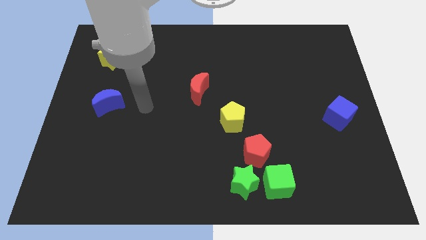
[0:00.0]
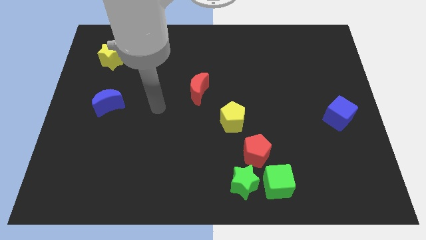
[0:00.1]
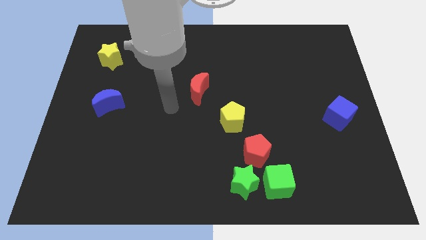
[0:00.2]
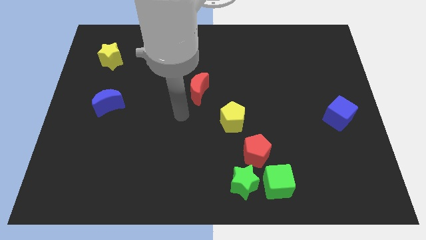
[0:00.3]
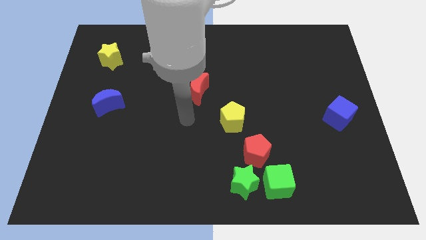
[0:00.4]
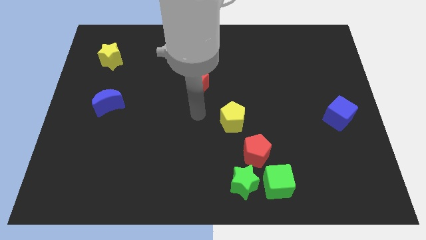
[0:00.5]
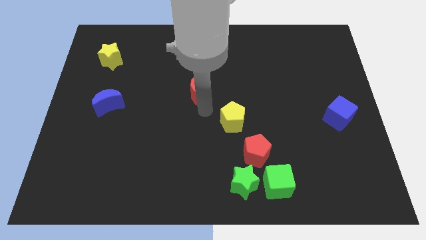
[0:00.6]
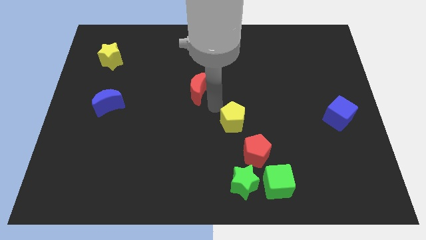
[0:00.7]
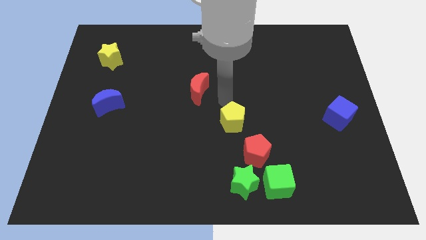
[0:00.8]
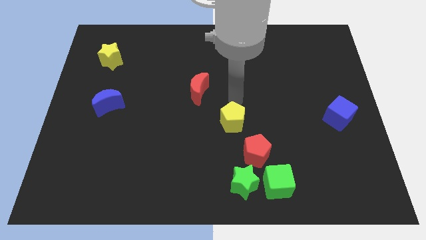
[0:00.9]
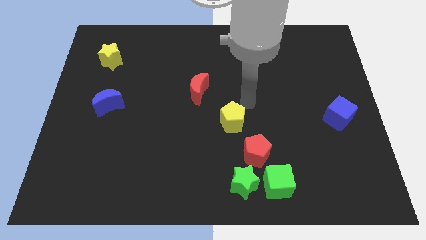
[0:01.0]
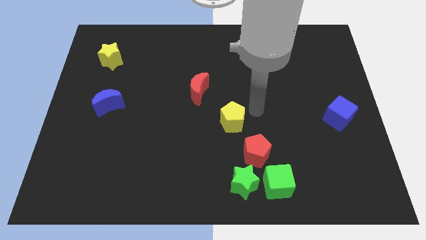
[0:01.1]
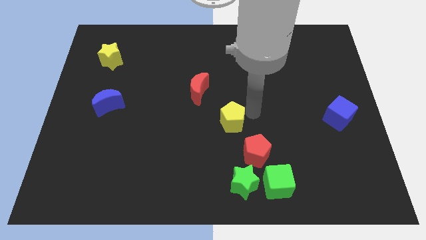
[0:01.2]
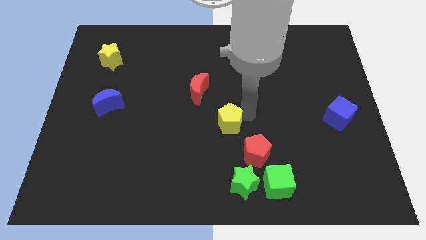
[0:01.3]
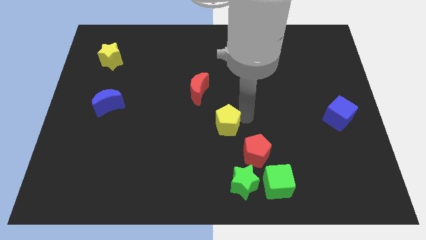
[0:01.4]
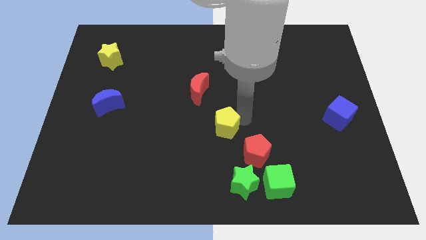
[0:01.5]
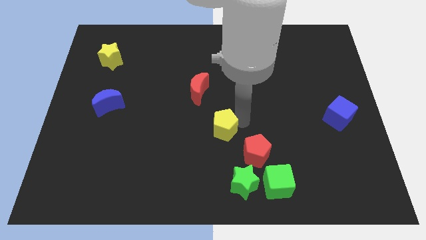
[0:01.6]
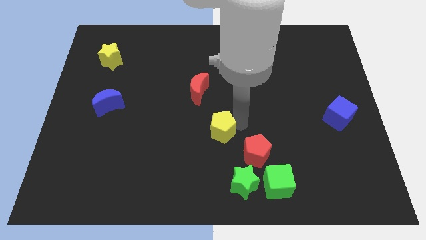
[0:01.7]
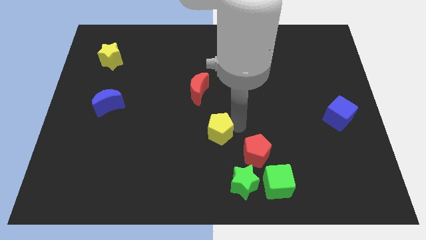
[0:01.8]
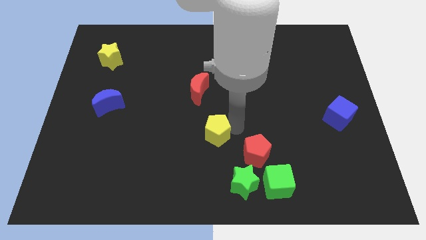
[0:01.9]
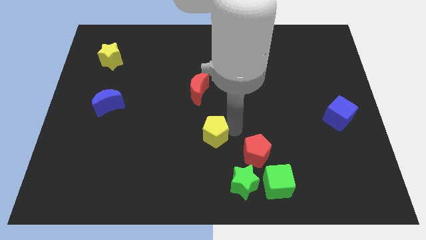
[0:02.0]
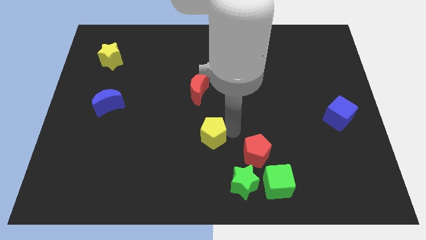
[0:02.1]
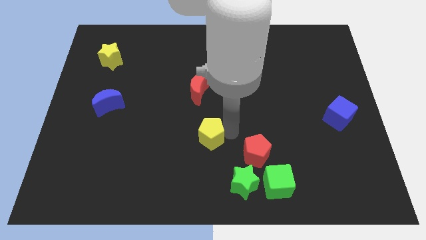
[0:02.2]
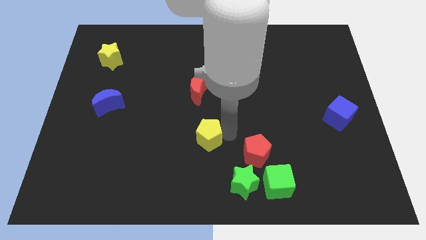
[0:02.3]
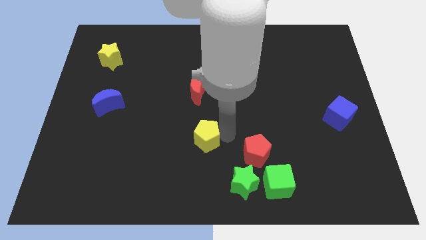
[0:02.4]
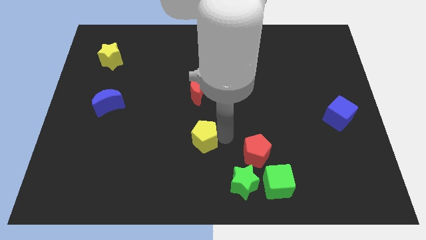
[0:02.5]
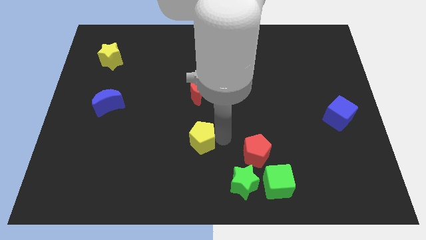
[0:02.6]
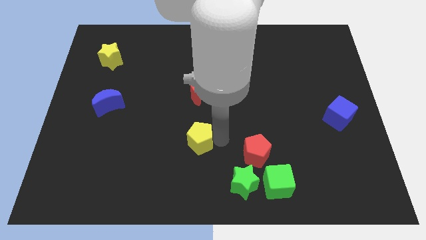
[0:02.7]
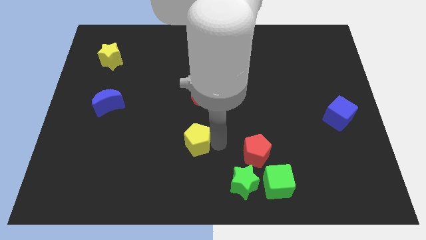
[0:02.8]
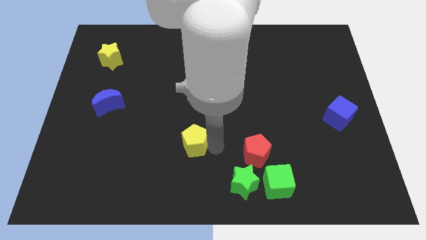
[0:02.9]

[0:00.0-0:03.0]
slightly push the yellow pentagon left

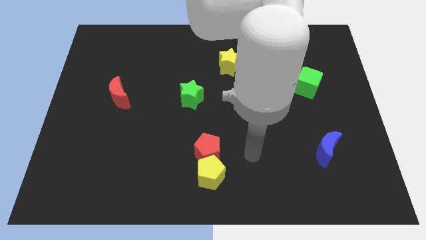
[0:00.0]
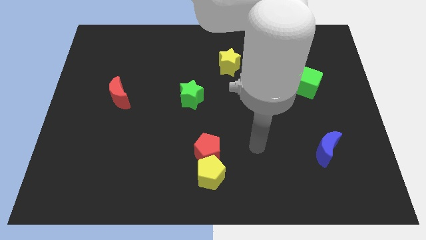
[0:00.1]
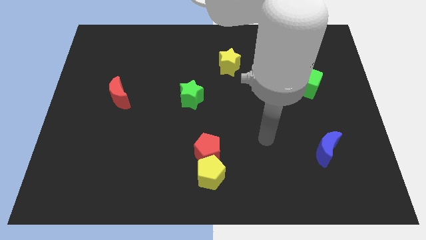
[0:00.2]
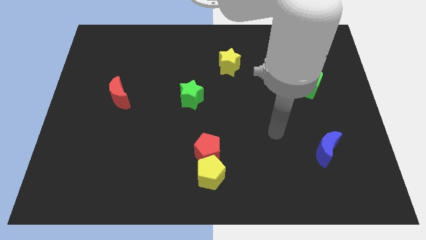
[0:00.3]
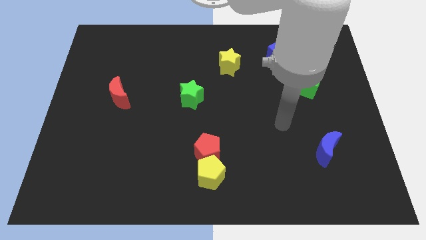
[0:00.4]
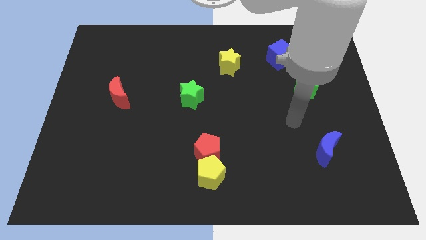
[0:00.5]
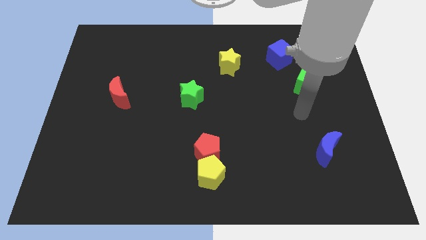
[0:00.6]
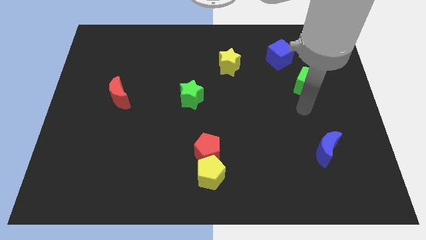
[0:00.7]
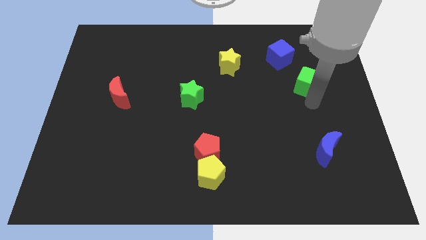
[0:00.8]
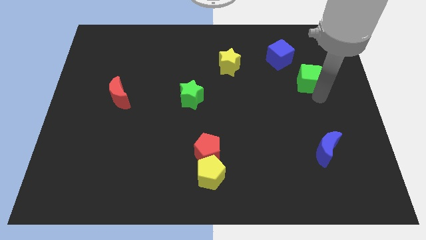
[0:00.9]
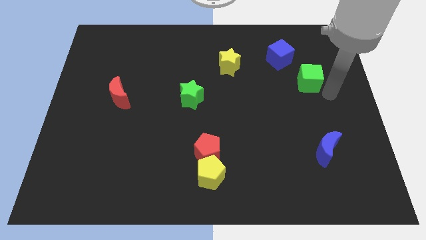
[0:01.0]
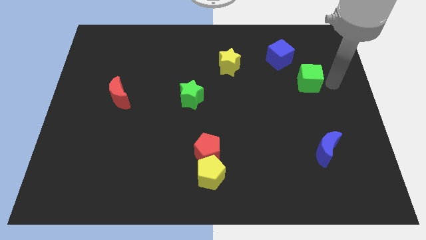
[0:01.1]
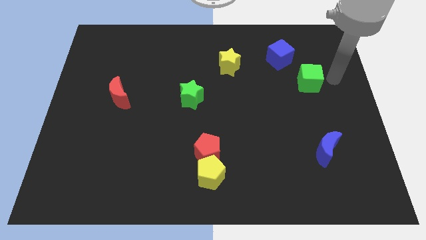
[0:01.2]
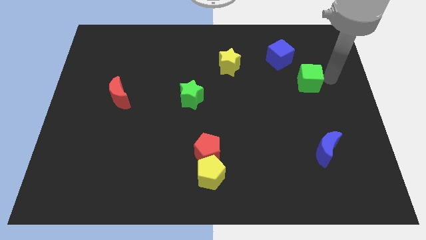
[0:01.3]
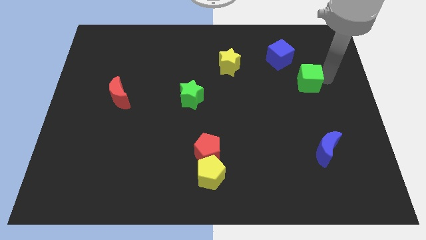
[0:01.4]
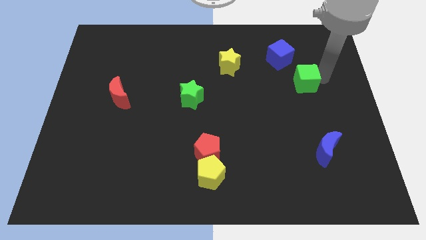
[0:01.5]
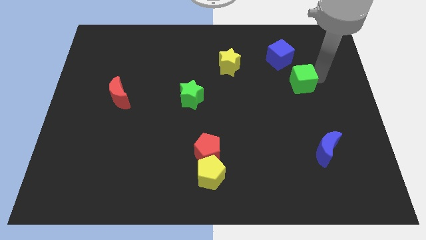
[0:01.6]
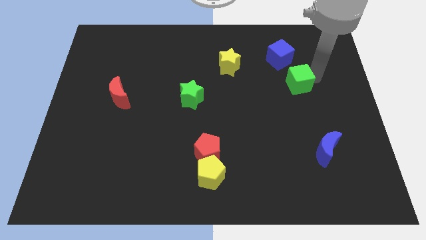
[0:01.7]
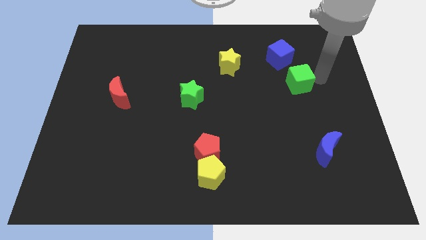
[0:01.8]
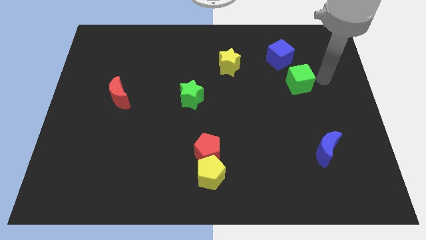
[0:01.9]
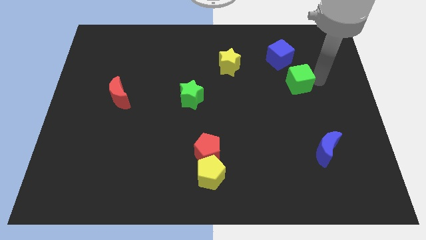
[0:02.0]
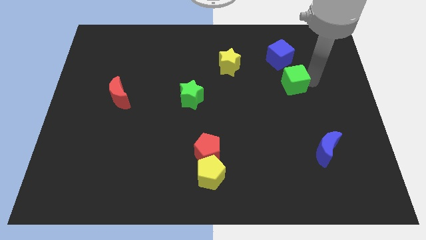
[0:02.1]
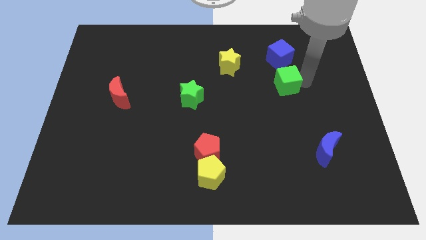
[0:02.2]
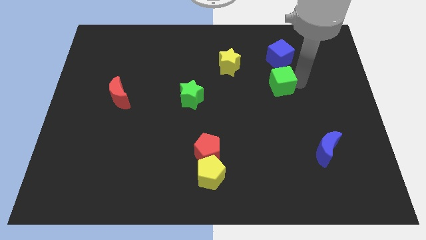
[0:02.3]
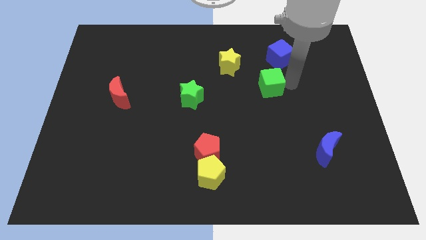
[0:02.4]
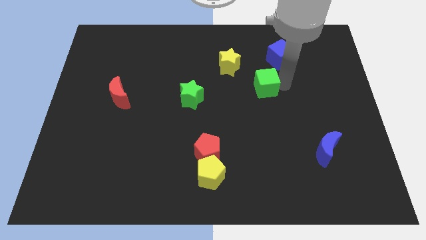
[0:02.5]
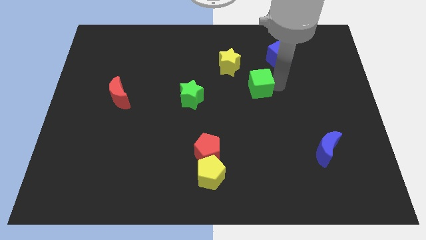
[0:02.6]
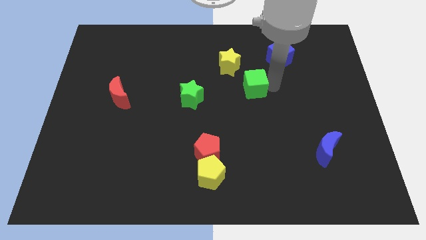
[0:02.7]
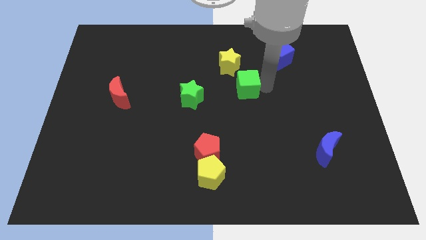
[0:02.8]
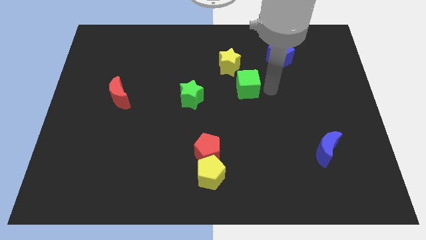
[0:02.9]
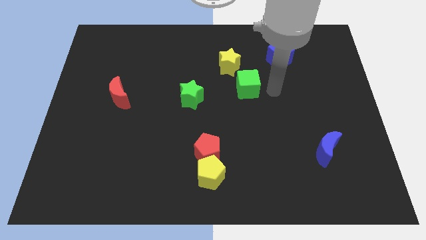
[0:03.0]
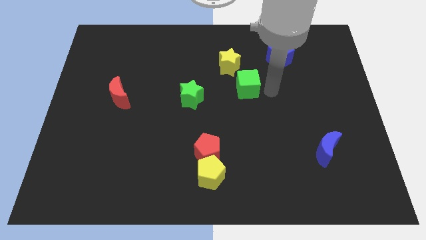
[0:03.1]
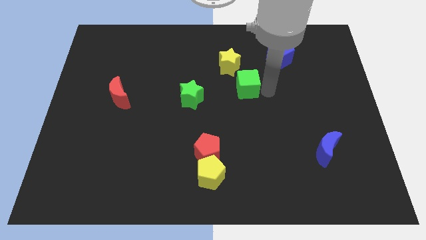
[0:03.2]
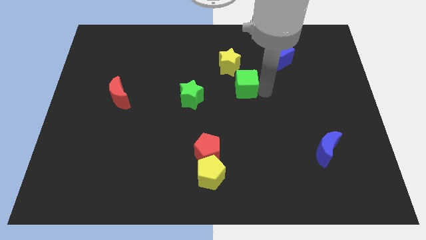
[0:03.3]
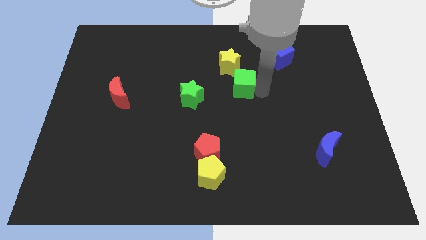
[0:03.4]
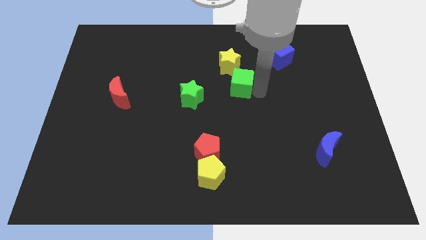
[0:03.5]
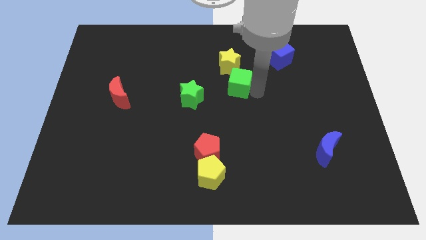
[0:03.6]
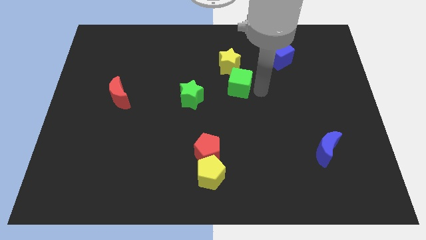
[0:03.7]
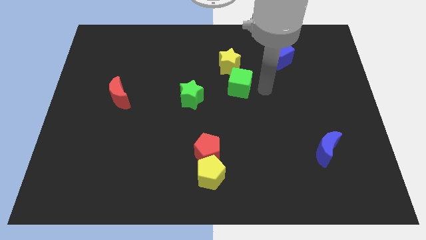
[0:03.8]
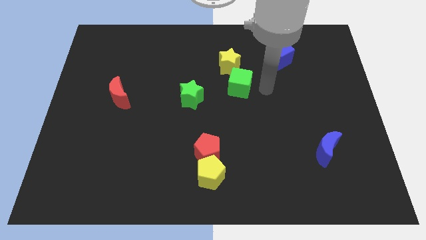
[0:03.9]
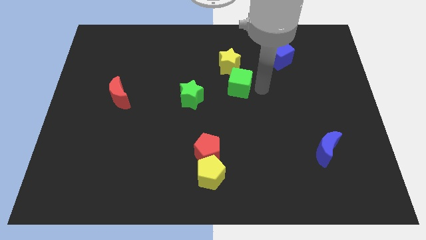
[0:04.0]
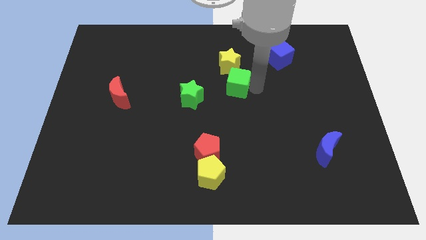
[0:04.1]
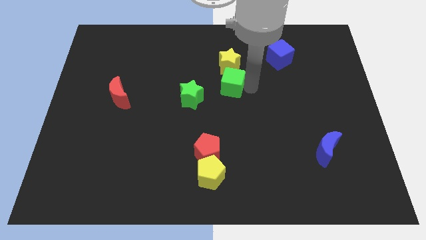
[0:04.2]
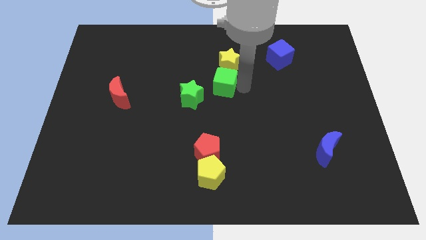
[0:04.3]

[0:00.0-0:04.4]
push the green cube to the left

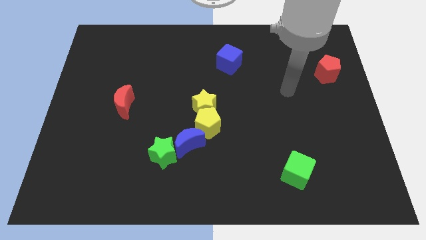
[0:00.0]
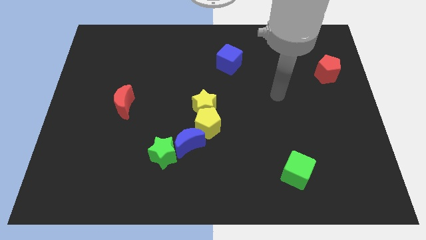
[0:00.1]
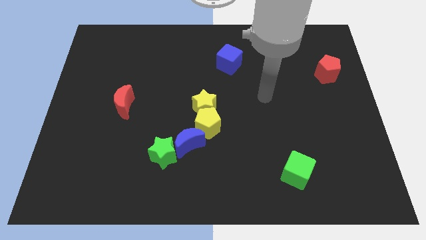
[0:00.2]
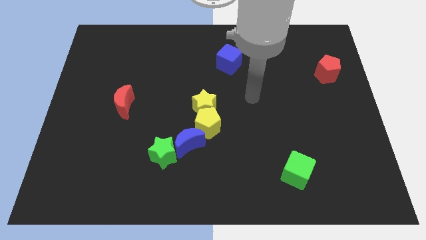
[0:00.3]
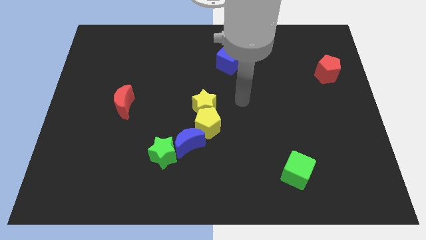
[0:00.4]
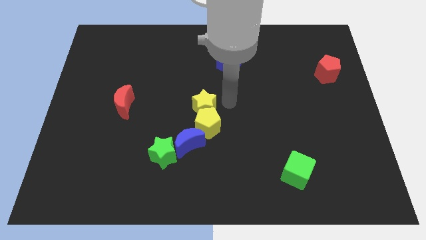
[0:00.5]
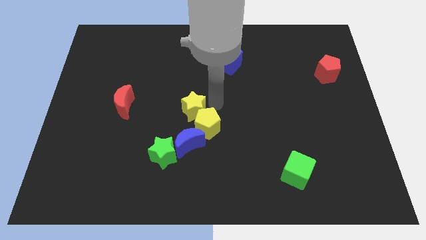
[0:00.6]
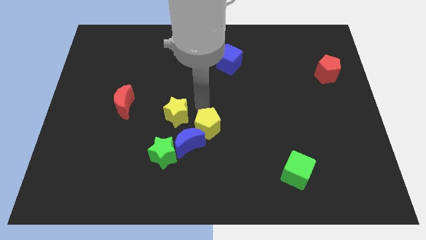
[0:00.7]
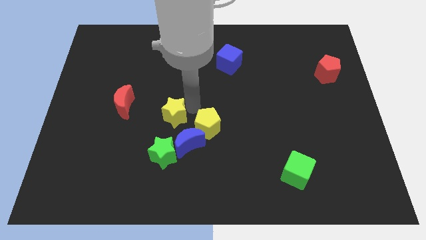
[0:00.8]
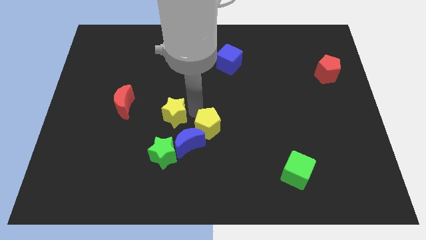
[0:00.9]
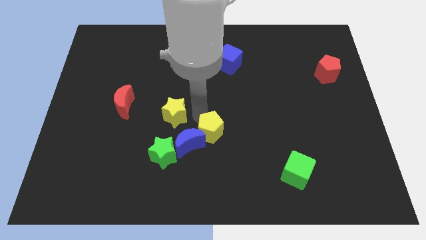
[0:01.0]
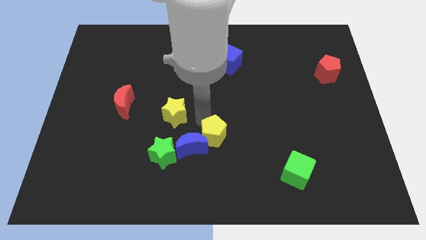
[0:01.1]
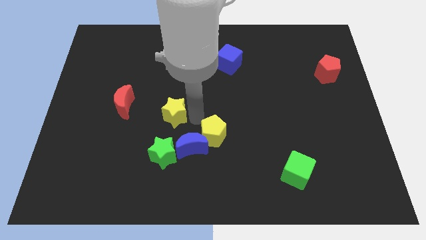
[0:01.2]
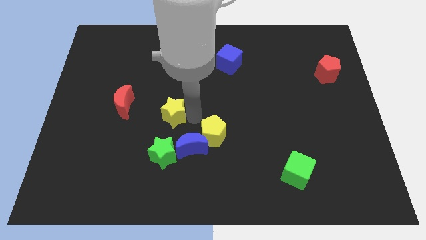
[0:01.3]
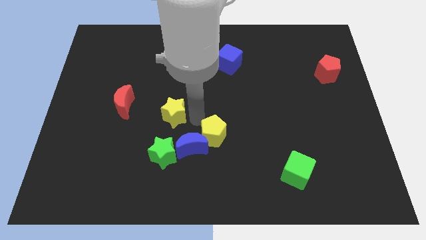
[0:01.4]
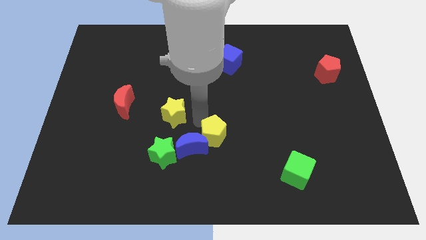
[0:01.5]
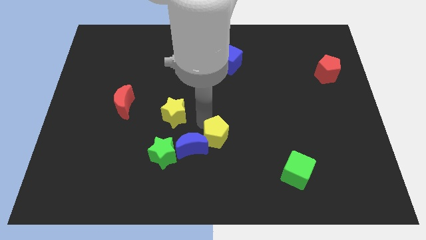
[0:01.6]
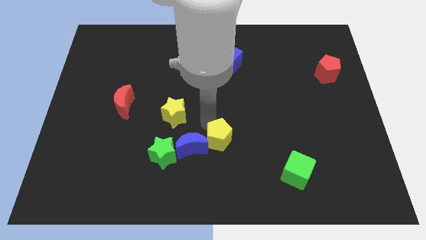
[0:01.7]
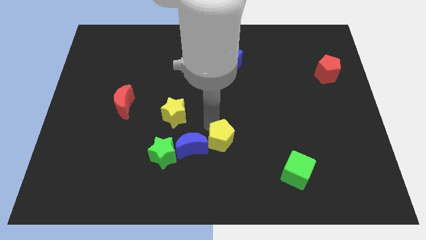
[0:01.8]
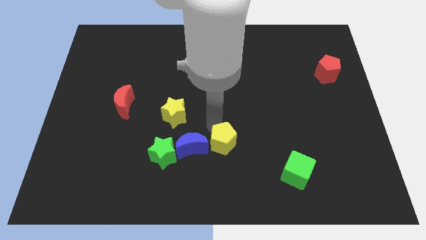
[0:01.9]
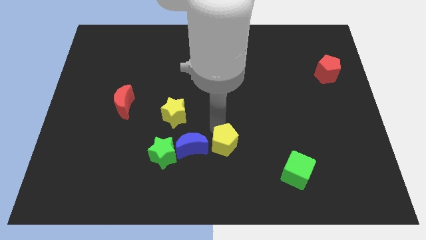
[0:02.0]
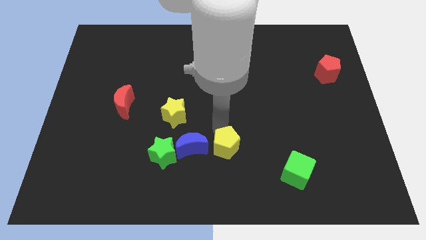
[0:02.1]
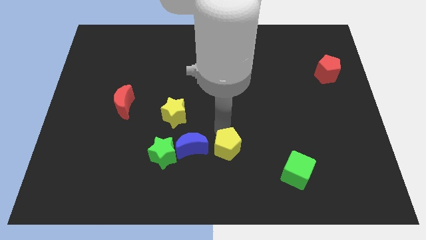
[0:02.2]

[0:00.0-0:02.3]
slightly push the yellow pentagon down and right
